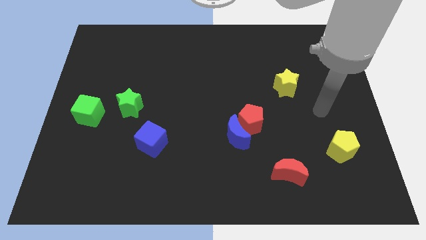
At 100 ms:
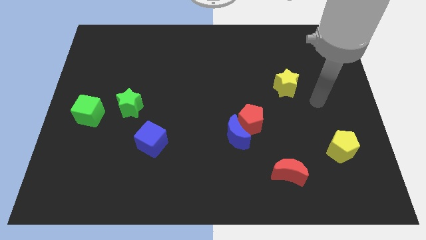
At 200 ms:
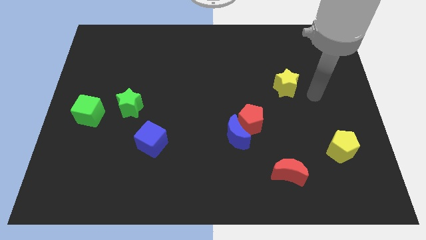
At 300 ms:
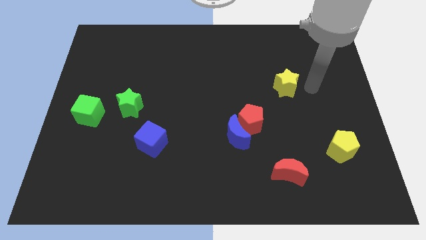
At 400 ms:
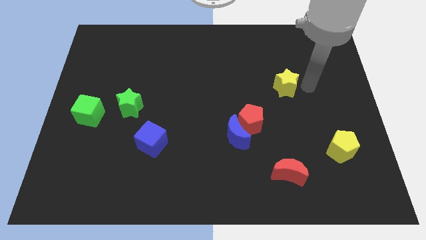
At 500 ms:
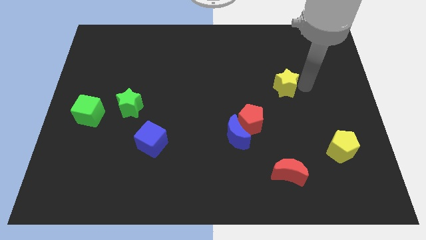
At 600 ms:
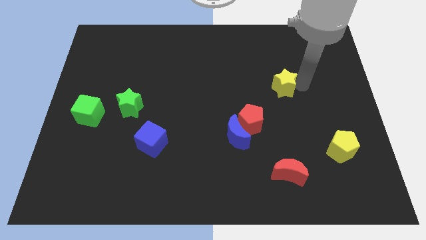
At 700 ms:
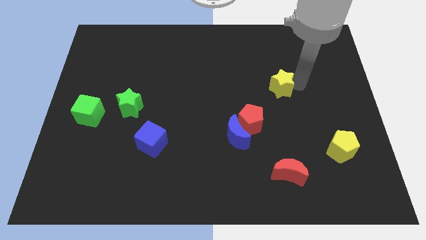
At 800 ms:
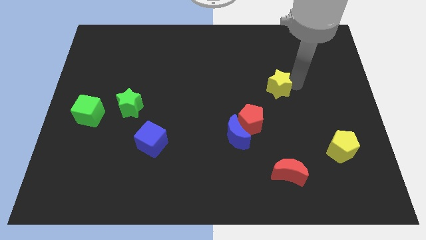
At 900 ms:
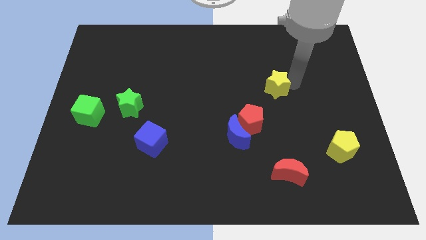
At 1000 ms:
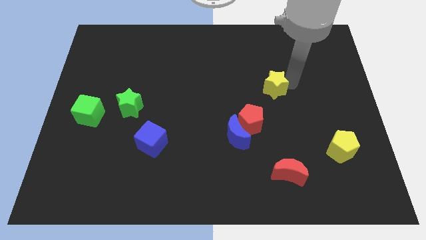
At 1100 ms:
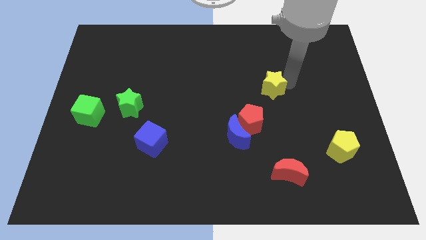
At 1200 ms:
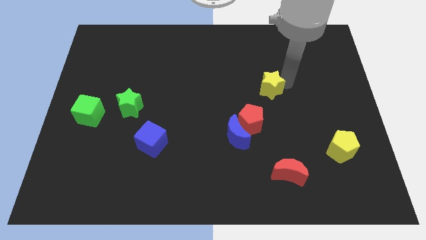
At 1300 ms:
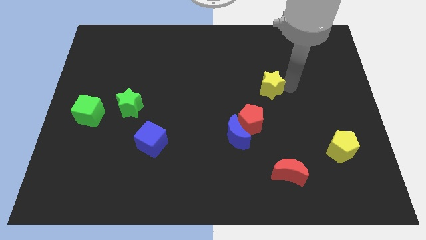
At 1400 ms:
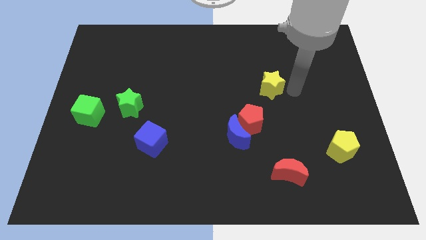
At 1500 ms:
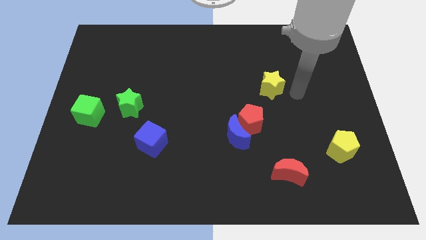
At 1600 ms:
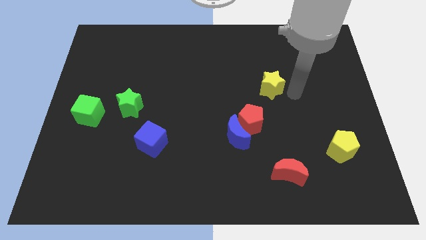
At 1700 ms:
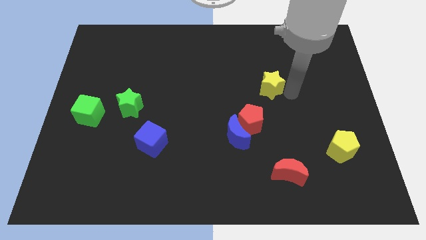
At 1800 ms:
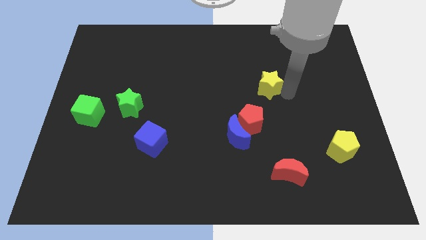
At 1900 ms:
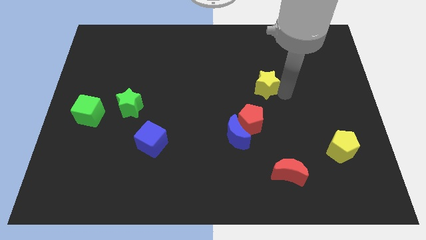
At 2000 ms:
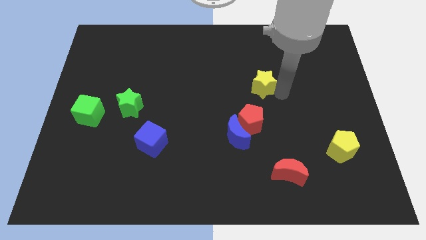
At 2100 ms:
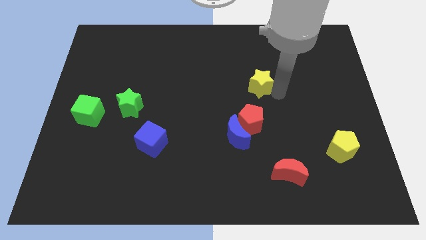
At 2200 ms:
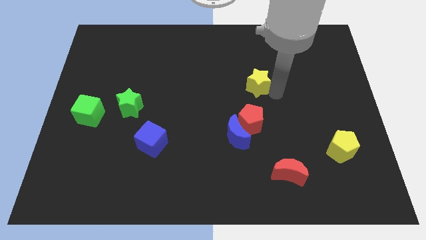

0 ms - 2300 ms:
move the yellow star slightly left

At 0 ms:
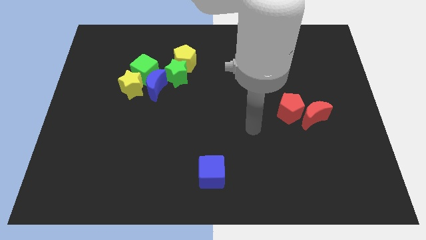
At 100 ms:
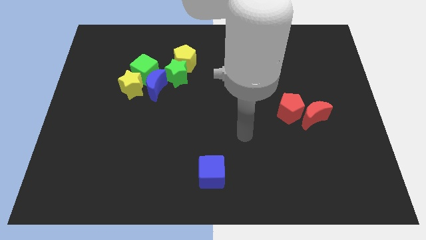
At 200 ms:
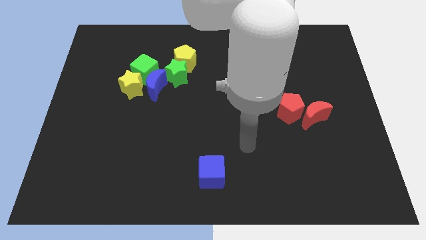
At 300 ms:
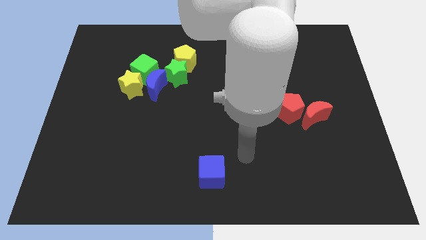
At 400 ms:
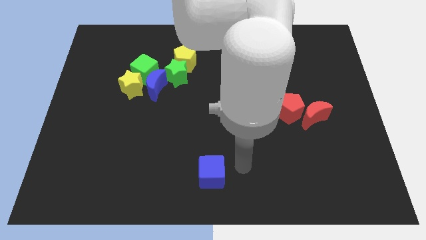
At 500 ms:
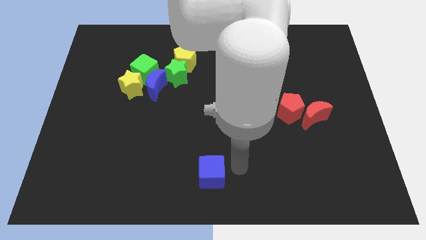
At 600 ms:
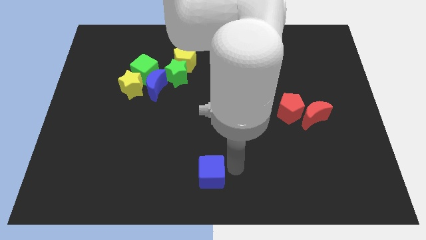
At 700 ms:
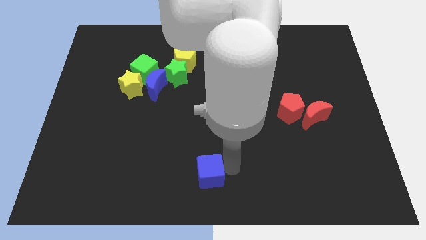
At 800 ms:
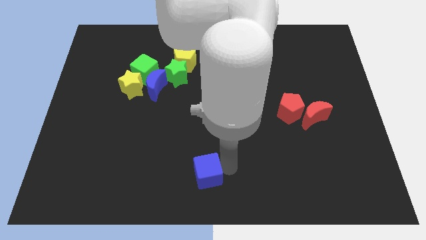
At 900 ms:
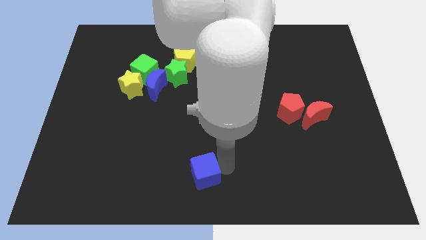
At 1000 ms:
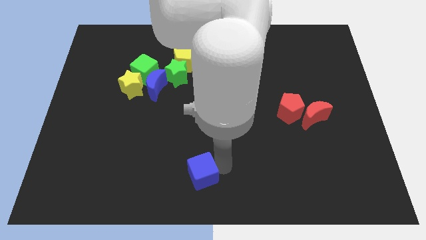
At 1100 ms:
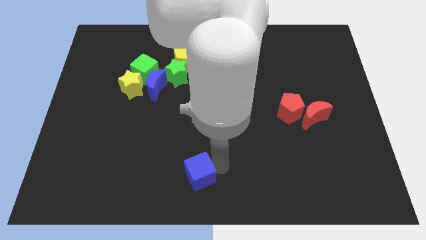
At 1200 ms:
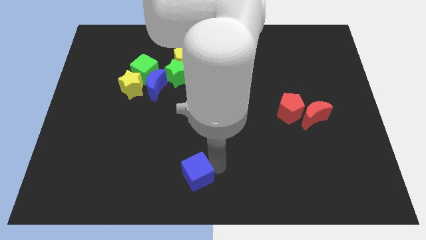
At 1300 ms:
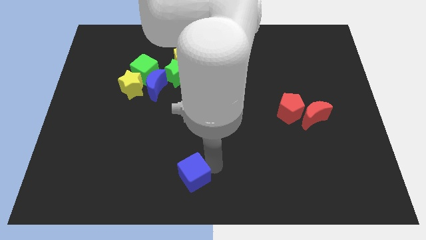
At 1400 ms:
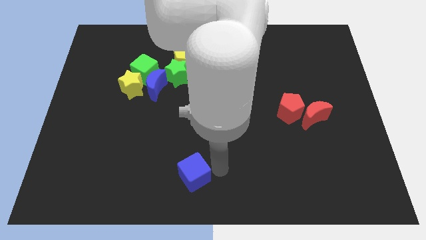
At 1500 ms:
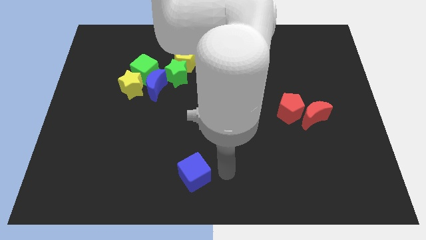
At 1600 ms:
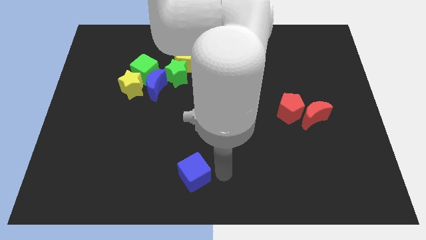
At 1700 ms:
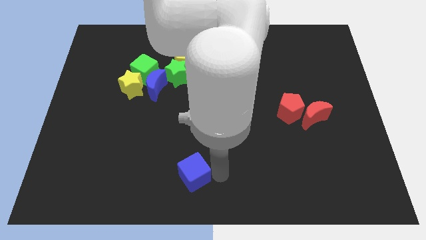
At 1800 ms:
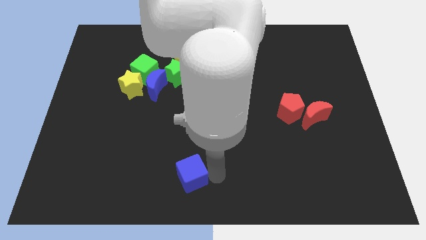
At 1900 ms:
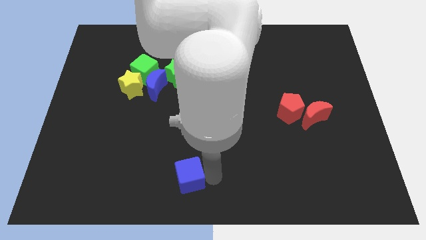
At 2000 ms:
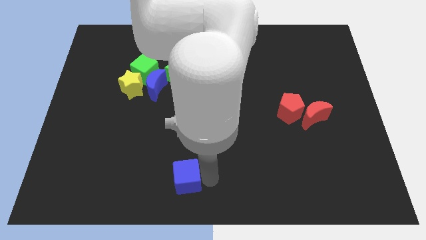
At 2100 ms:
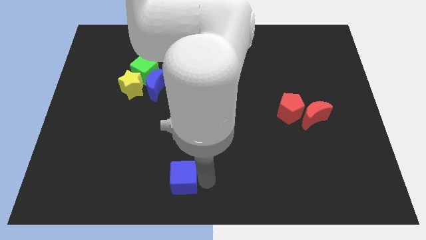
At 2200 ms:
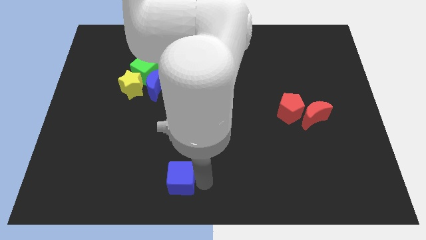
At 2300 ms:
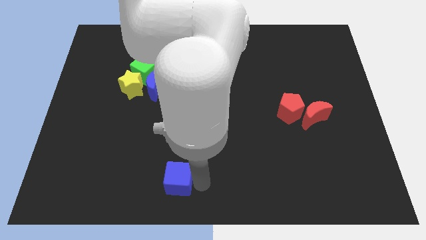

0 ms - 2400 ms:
slide the blue cube left slightly

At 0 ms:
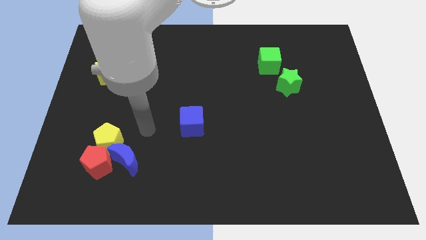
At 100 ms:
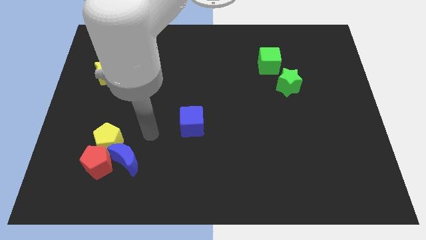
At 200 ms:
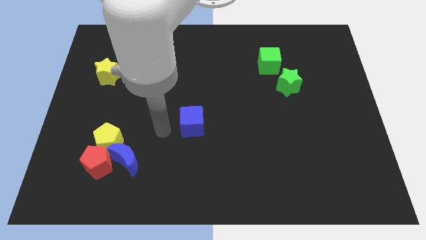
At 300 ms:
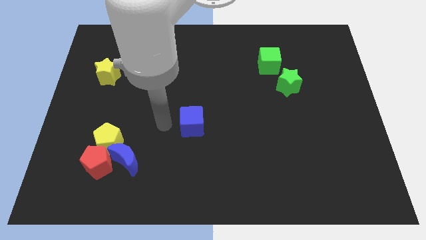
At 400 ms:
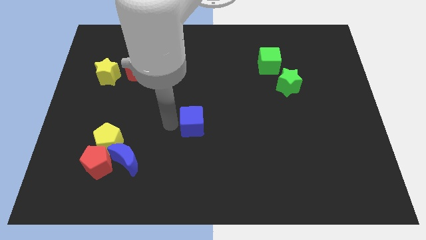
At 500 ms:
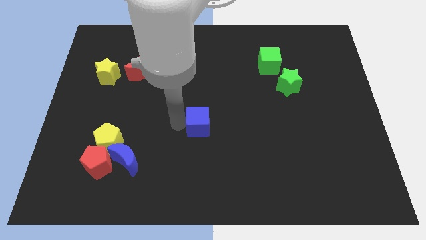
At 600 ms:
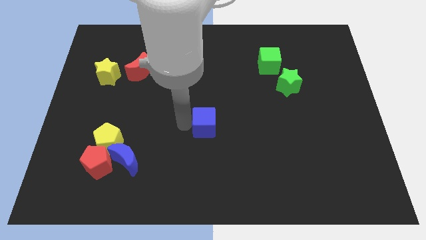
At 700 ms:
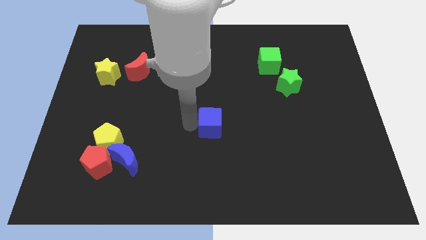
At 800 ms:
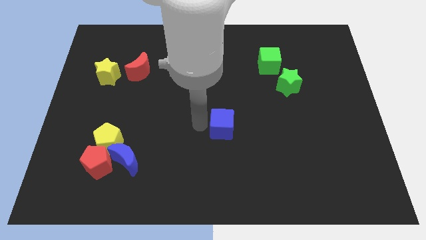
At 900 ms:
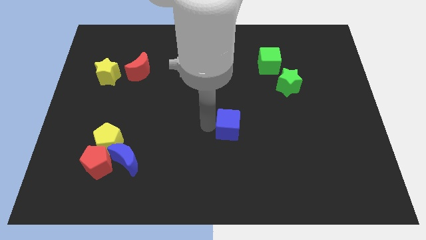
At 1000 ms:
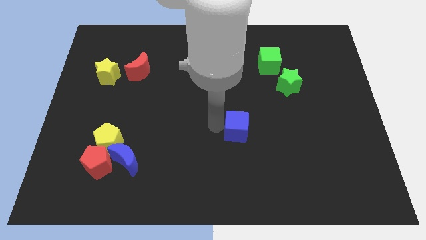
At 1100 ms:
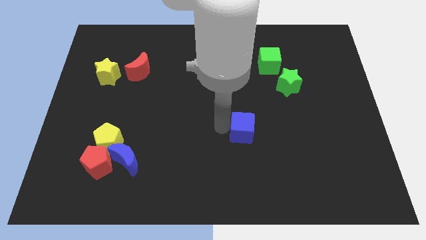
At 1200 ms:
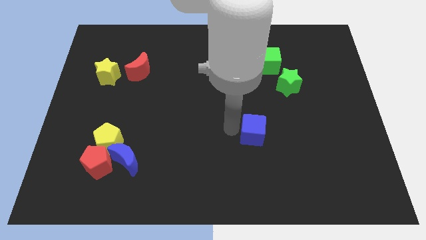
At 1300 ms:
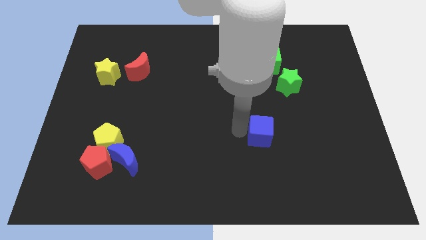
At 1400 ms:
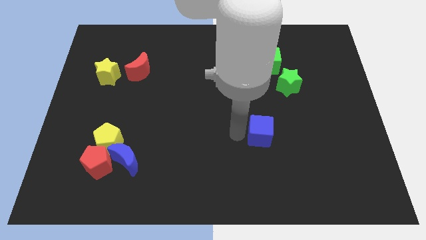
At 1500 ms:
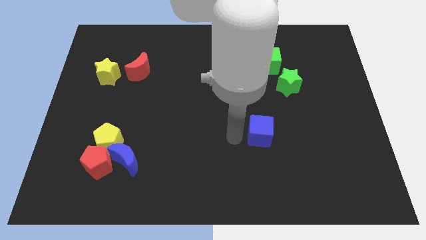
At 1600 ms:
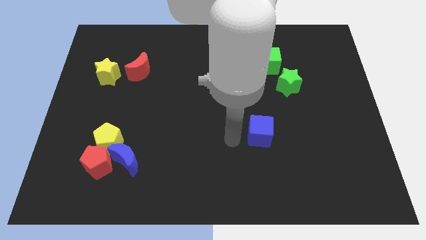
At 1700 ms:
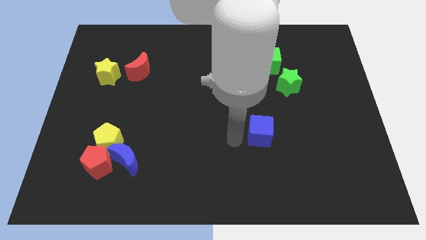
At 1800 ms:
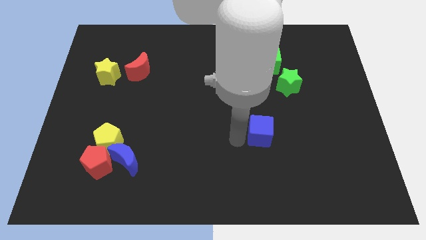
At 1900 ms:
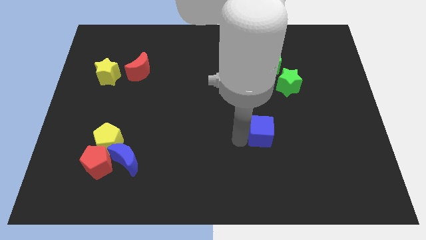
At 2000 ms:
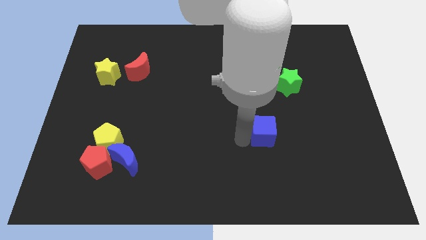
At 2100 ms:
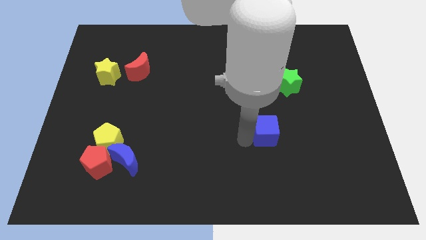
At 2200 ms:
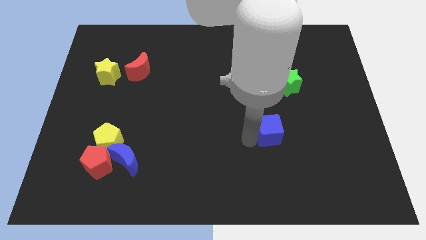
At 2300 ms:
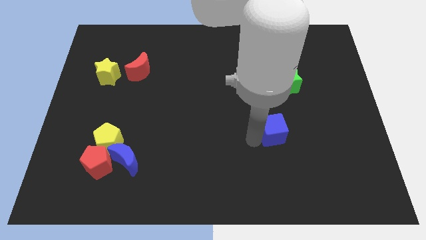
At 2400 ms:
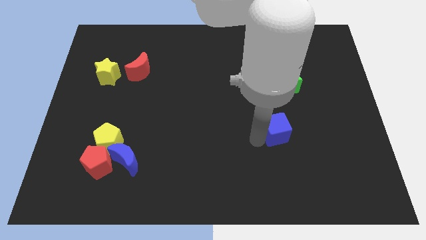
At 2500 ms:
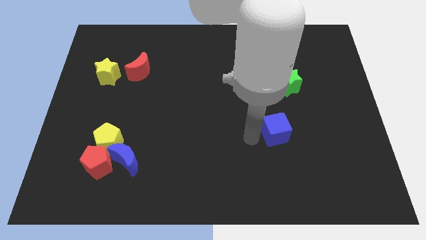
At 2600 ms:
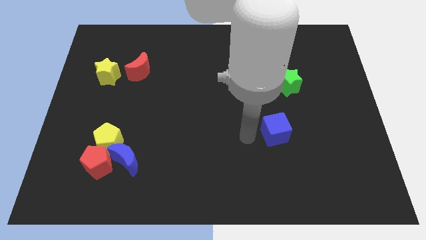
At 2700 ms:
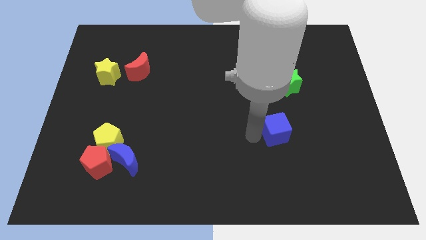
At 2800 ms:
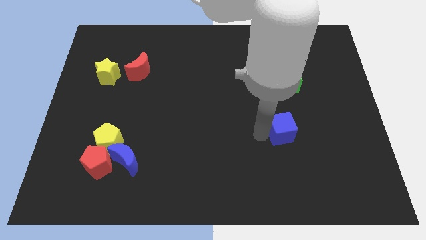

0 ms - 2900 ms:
slide the blue cube right

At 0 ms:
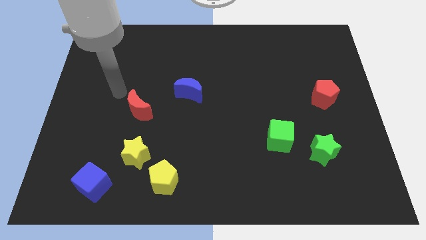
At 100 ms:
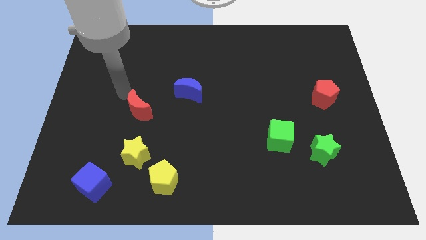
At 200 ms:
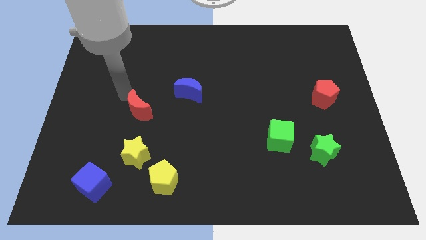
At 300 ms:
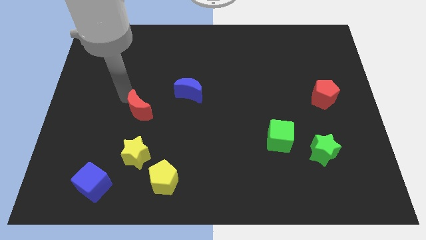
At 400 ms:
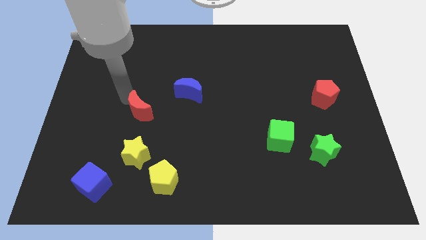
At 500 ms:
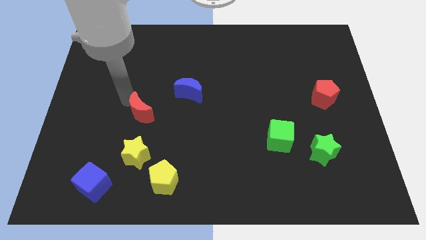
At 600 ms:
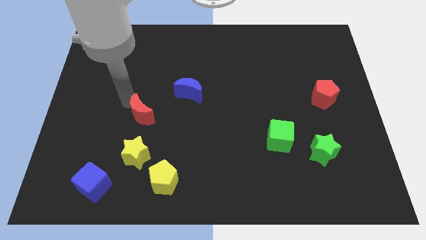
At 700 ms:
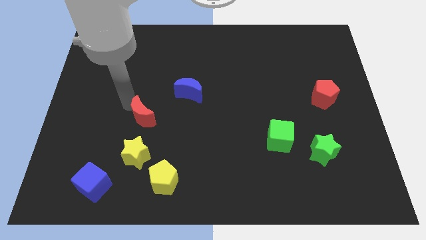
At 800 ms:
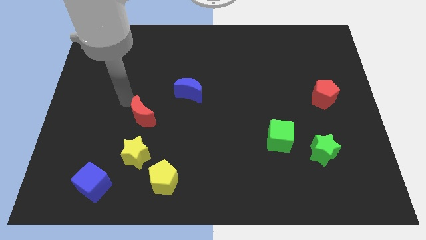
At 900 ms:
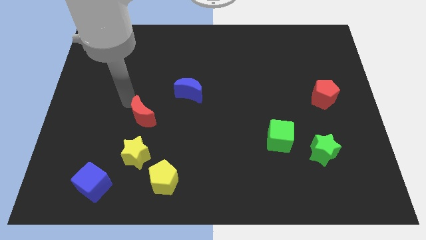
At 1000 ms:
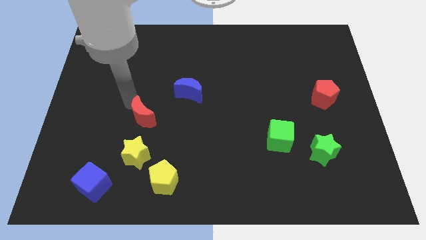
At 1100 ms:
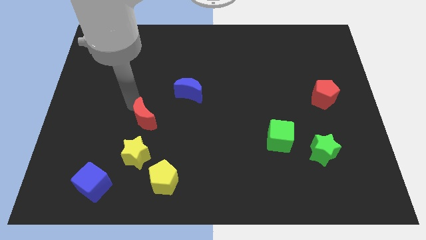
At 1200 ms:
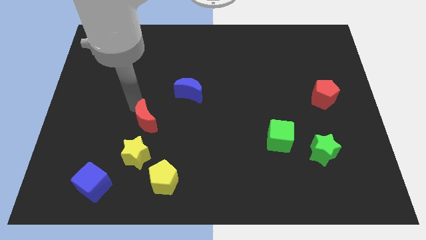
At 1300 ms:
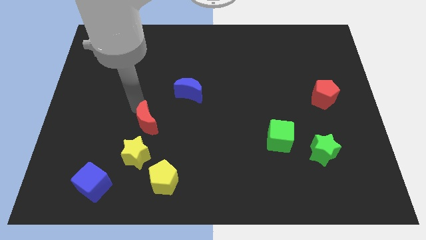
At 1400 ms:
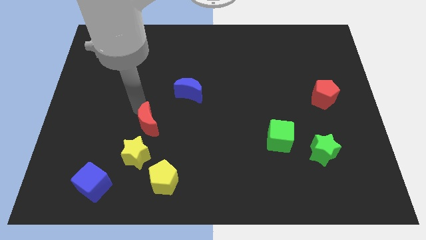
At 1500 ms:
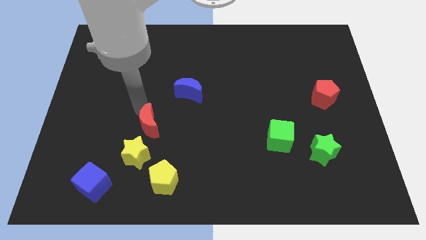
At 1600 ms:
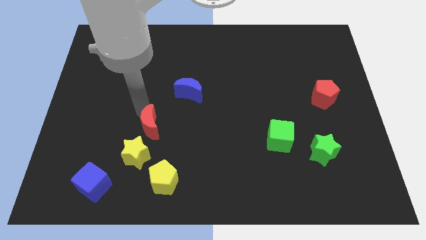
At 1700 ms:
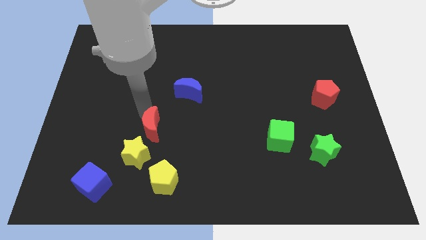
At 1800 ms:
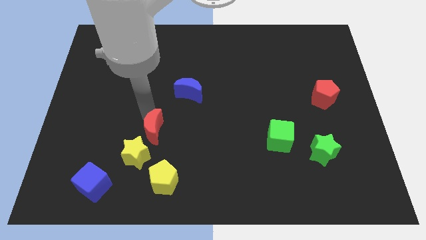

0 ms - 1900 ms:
slide the red moon a little bit downwards and right
